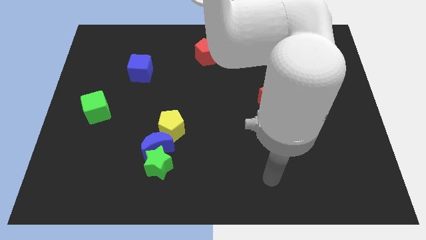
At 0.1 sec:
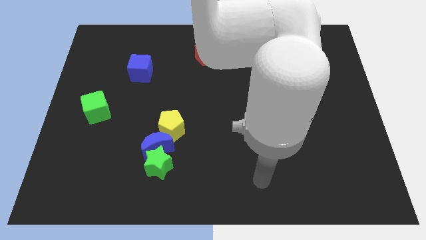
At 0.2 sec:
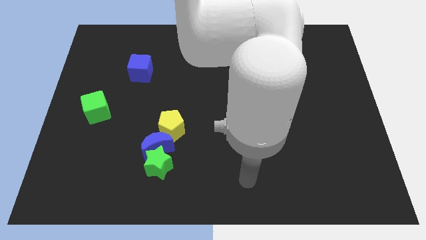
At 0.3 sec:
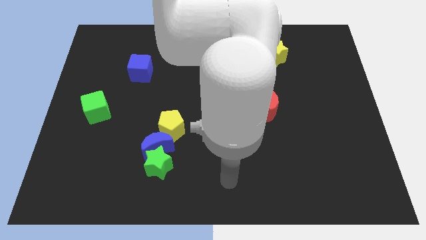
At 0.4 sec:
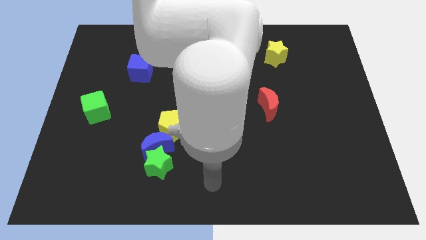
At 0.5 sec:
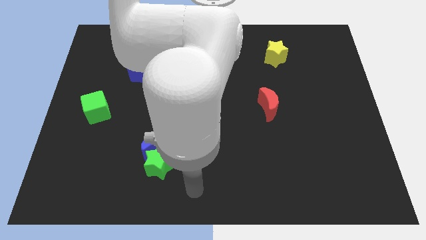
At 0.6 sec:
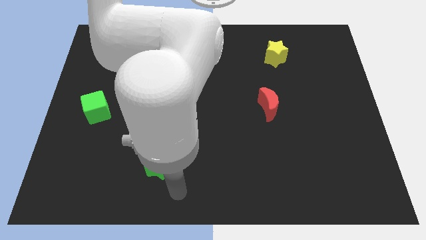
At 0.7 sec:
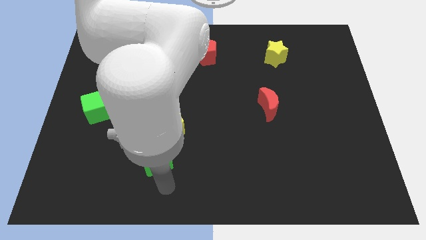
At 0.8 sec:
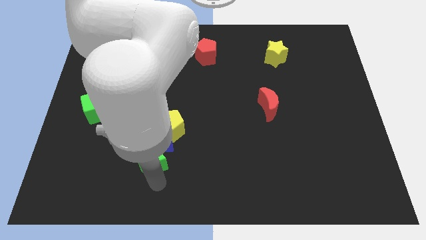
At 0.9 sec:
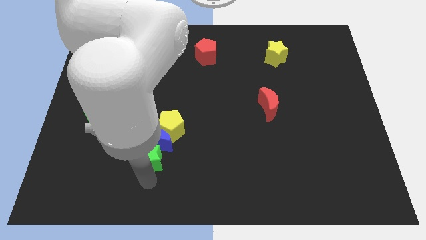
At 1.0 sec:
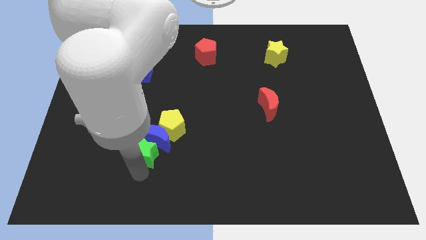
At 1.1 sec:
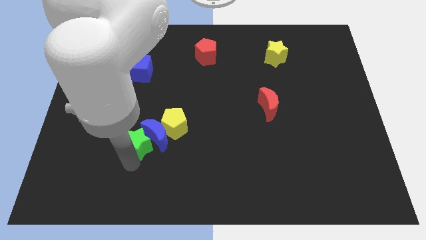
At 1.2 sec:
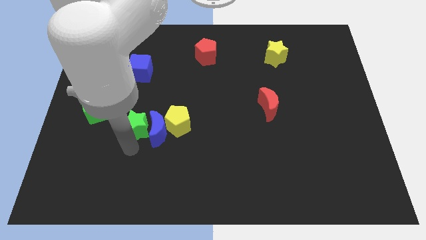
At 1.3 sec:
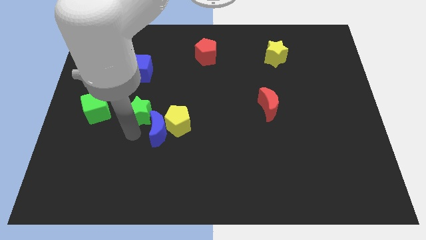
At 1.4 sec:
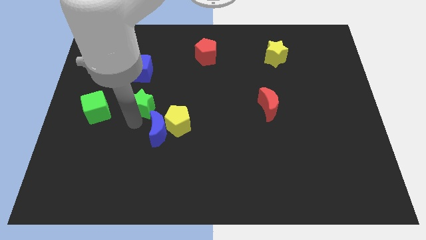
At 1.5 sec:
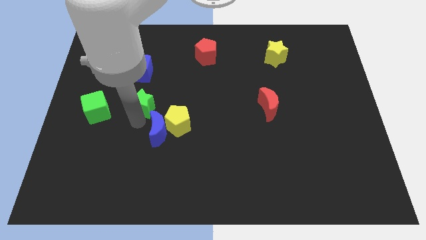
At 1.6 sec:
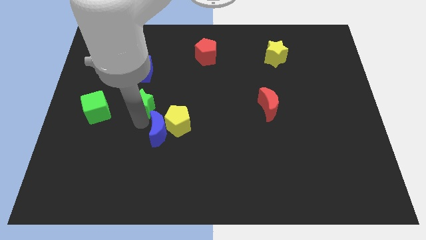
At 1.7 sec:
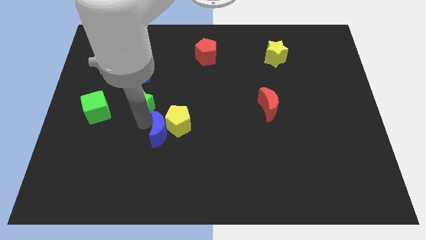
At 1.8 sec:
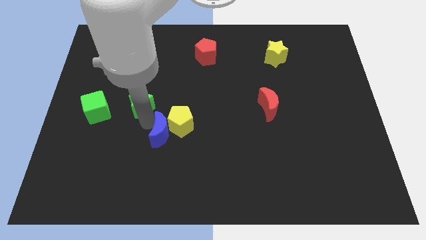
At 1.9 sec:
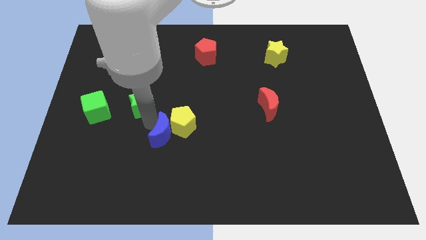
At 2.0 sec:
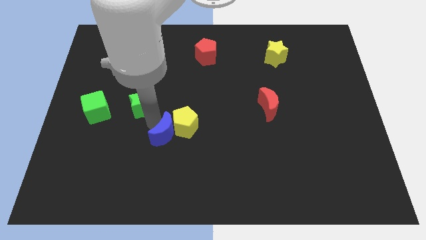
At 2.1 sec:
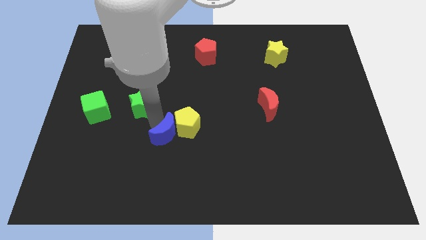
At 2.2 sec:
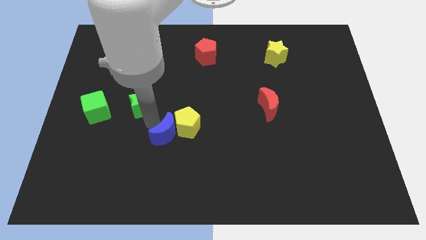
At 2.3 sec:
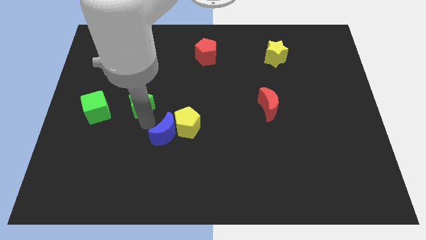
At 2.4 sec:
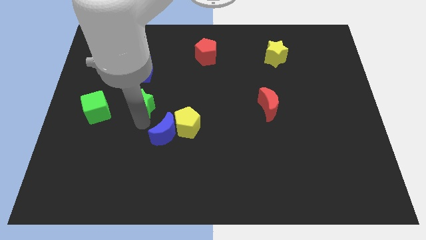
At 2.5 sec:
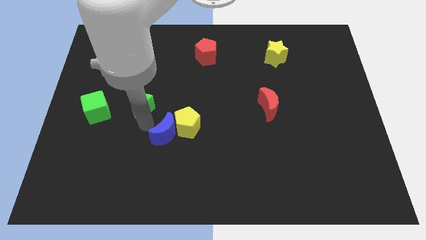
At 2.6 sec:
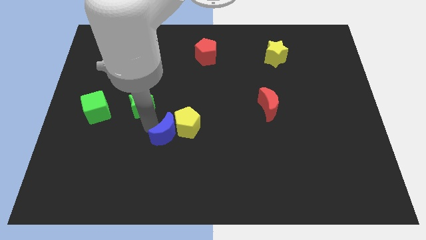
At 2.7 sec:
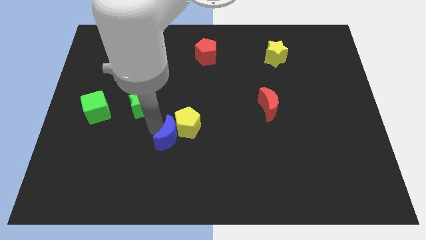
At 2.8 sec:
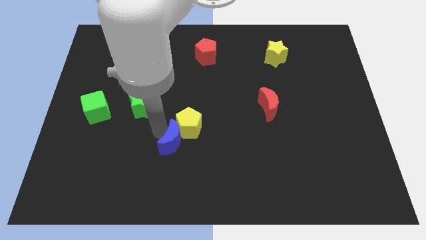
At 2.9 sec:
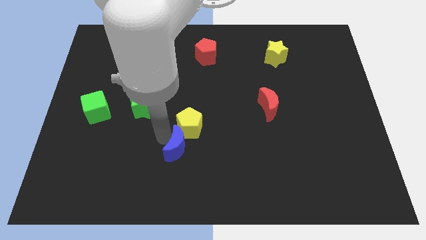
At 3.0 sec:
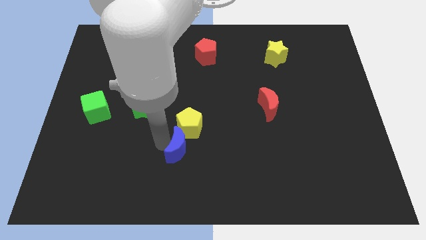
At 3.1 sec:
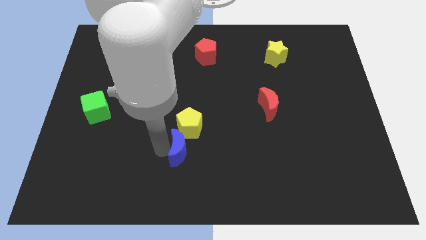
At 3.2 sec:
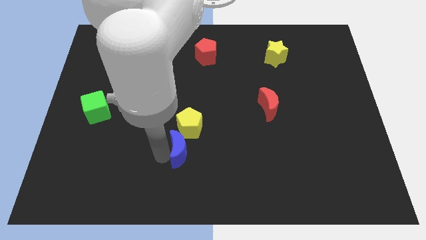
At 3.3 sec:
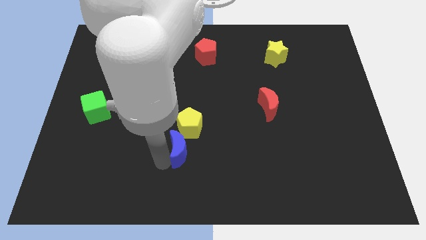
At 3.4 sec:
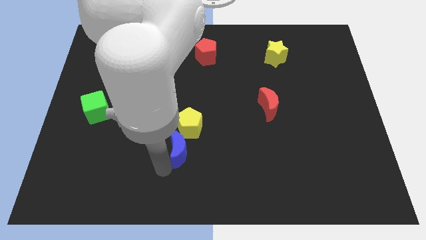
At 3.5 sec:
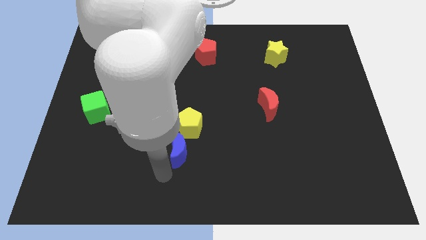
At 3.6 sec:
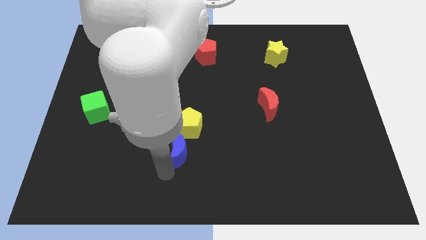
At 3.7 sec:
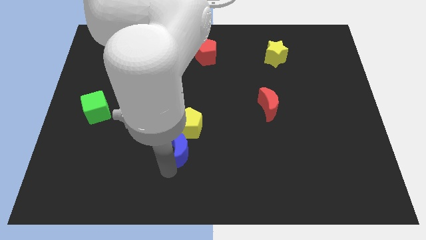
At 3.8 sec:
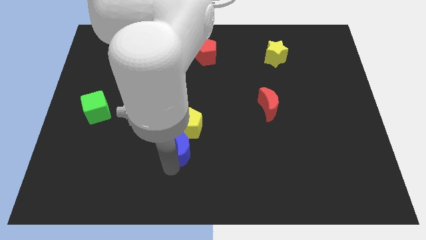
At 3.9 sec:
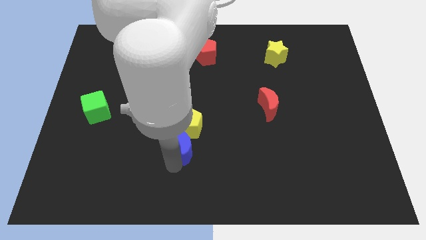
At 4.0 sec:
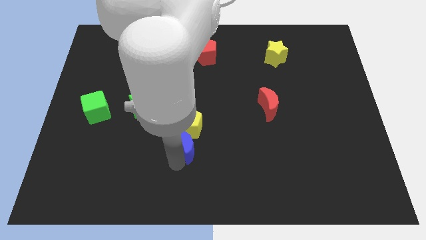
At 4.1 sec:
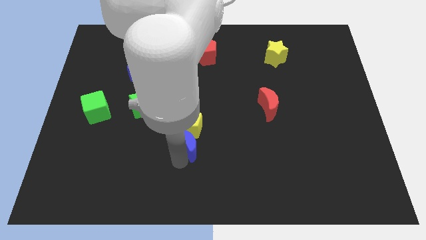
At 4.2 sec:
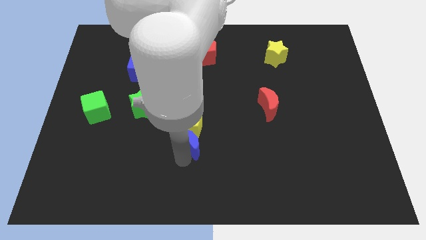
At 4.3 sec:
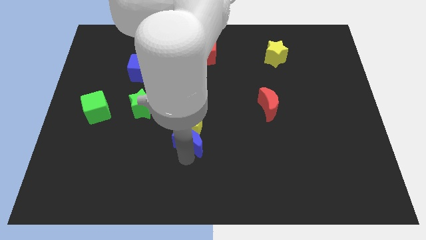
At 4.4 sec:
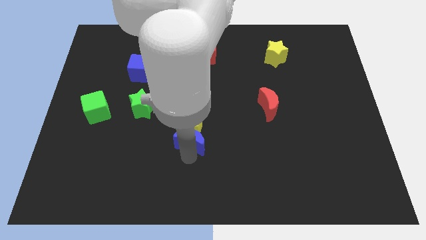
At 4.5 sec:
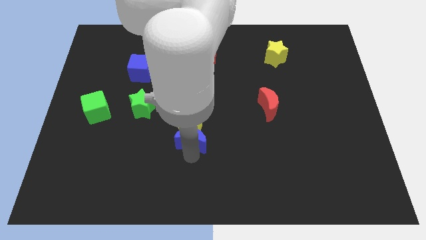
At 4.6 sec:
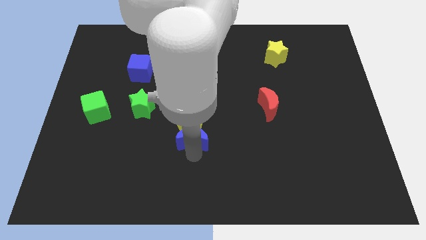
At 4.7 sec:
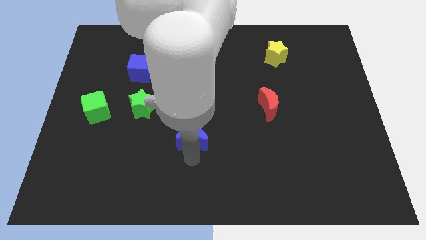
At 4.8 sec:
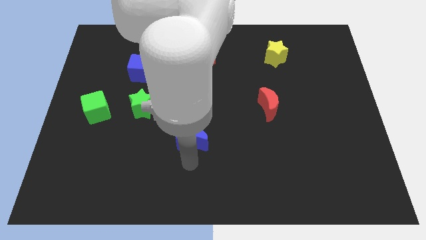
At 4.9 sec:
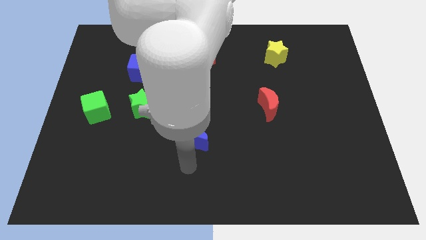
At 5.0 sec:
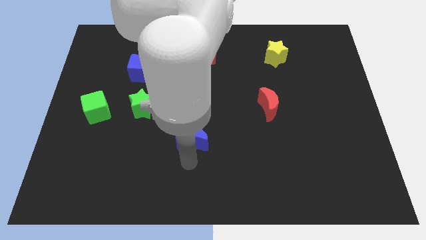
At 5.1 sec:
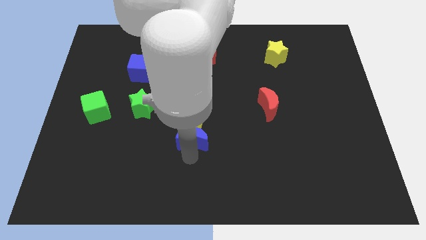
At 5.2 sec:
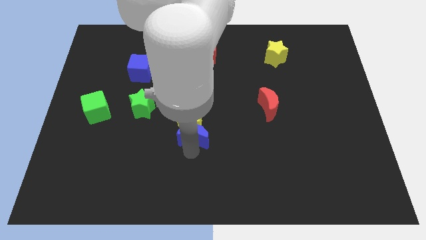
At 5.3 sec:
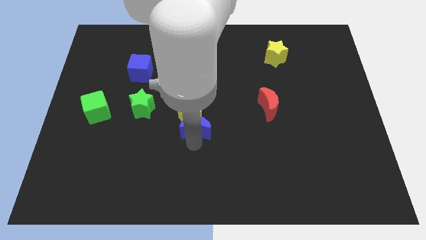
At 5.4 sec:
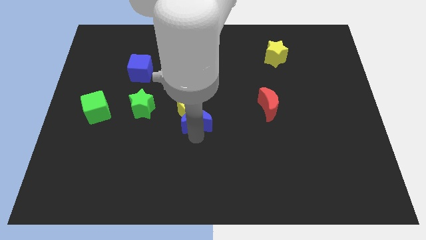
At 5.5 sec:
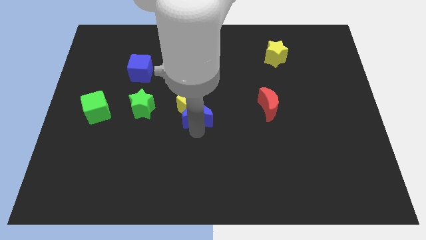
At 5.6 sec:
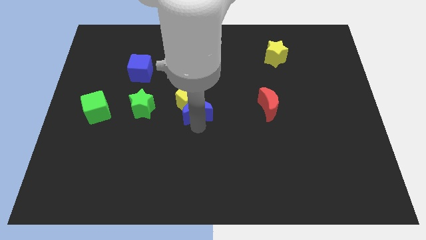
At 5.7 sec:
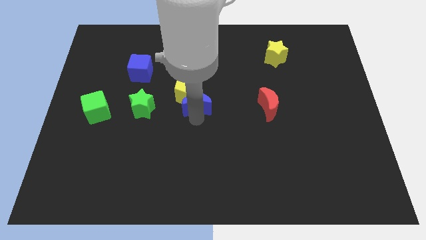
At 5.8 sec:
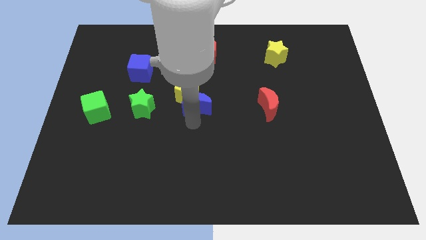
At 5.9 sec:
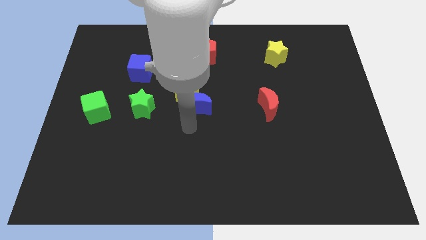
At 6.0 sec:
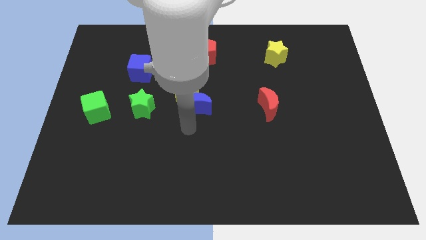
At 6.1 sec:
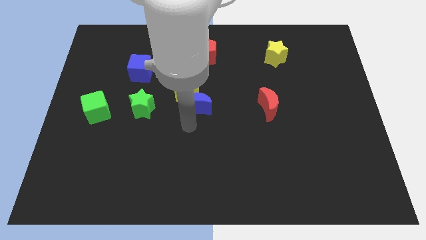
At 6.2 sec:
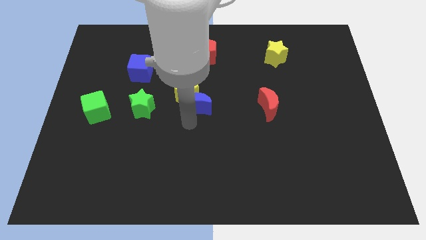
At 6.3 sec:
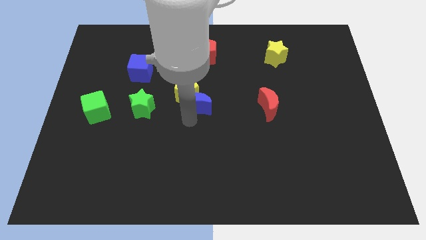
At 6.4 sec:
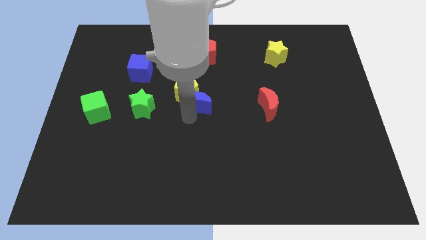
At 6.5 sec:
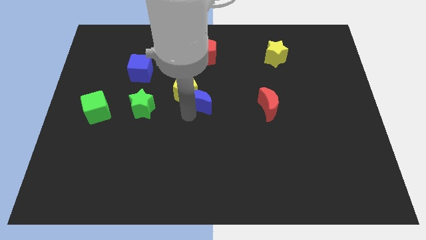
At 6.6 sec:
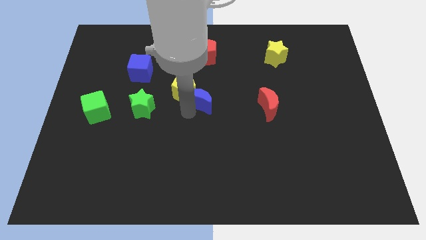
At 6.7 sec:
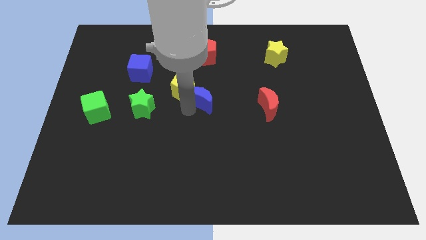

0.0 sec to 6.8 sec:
put the blue moon to the bottom of the red pentagon
